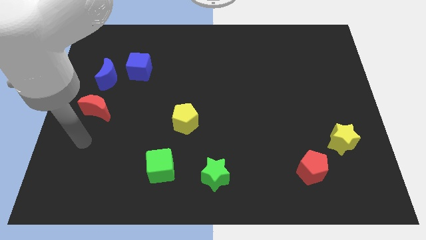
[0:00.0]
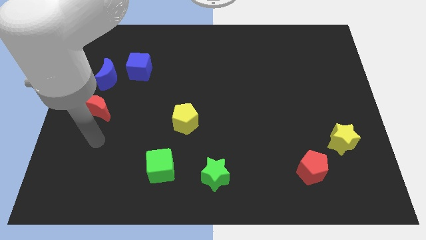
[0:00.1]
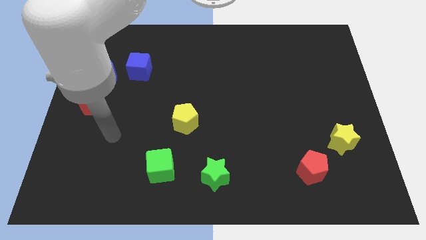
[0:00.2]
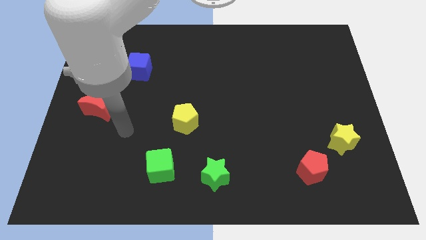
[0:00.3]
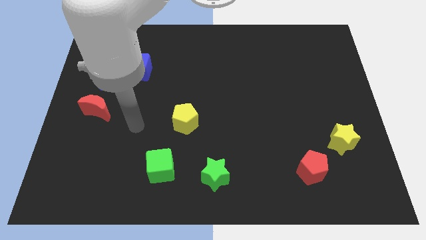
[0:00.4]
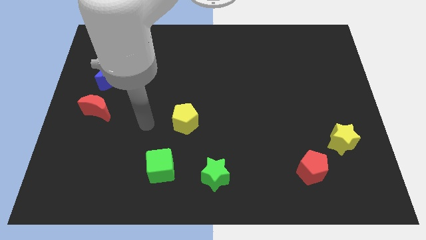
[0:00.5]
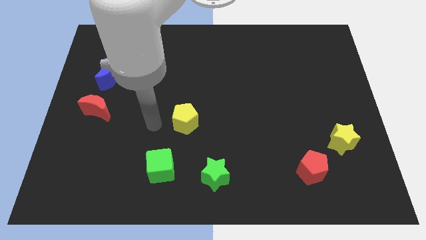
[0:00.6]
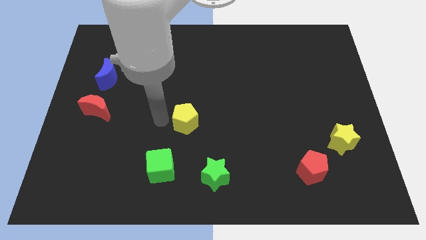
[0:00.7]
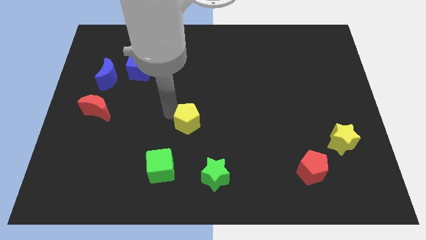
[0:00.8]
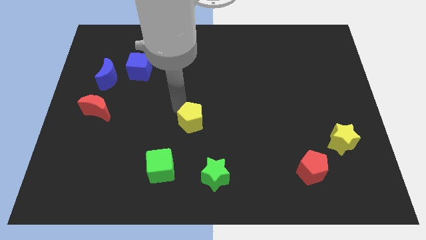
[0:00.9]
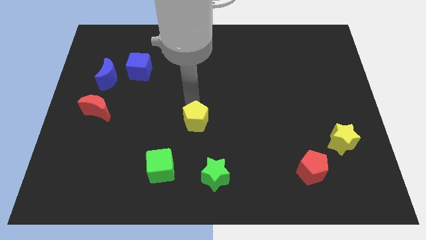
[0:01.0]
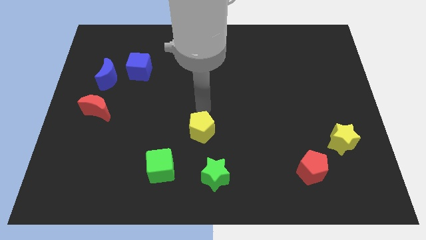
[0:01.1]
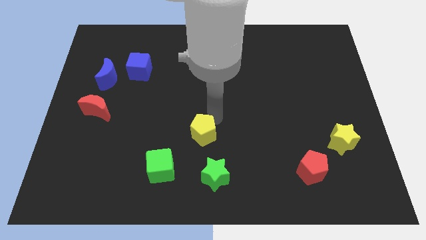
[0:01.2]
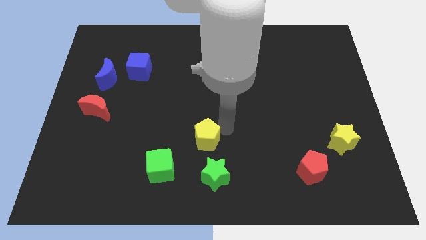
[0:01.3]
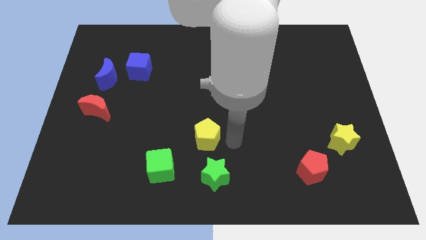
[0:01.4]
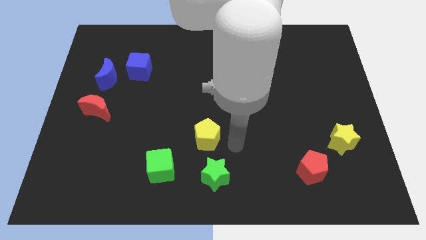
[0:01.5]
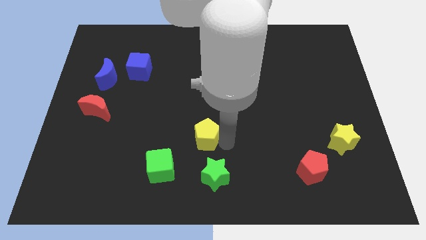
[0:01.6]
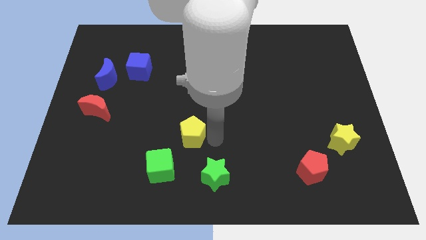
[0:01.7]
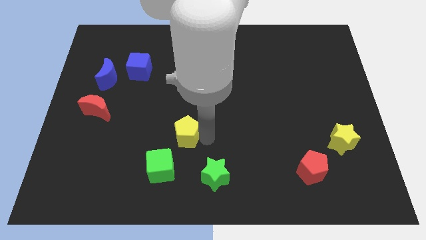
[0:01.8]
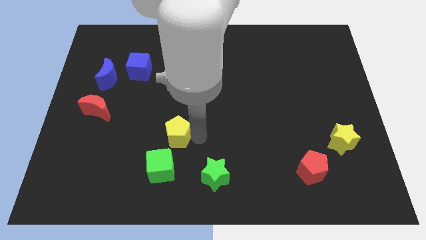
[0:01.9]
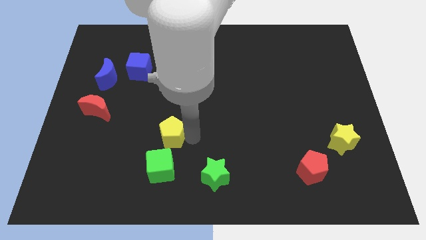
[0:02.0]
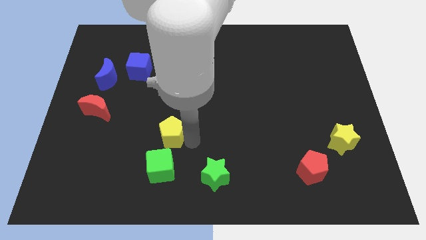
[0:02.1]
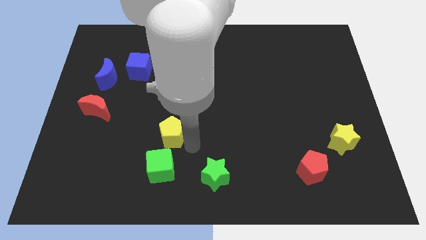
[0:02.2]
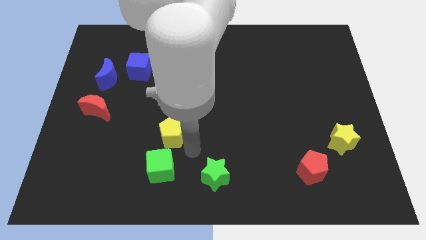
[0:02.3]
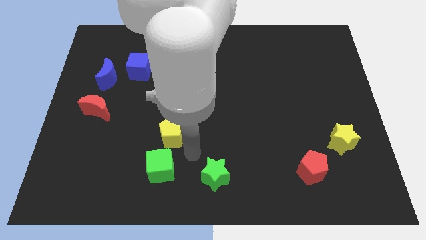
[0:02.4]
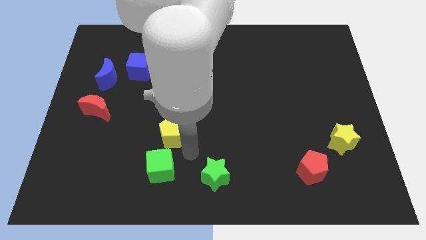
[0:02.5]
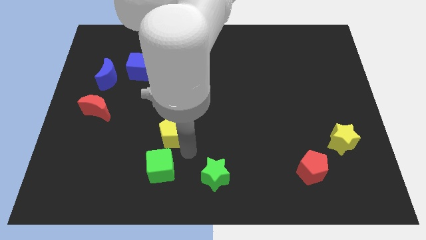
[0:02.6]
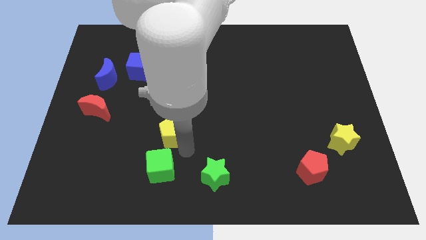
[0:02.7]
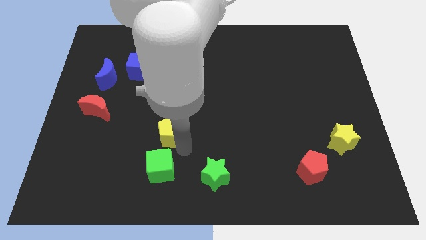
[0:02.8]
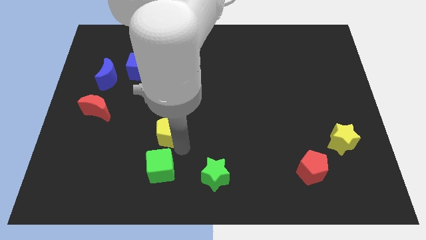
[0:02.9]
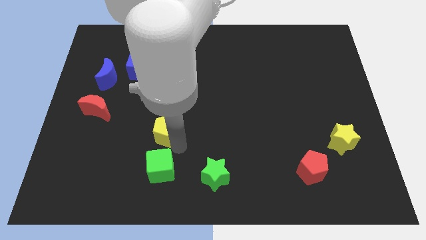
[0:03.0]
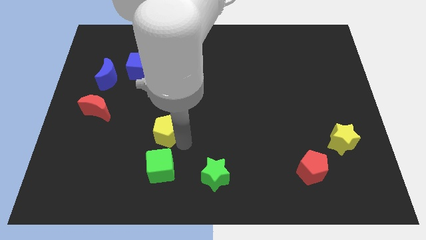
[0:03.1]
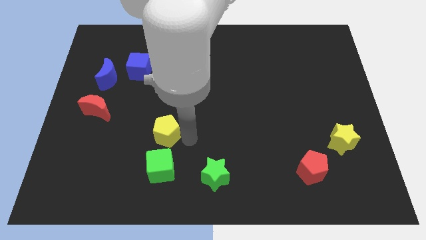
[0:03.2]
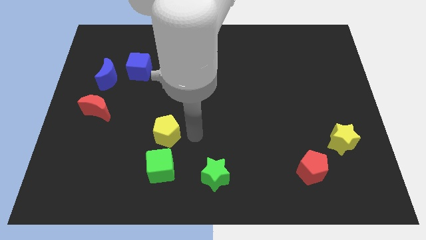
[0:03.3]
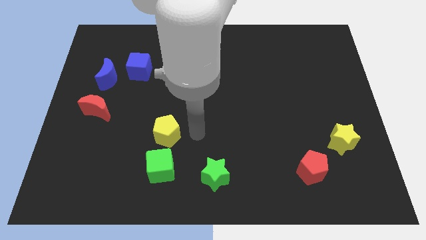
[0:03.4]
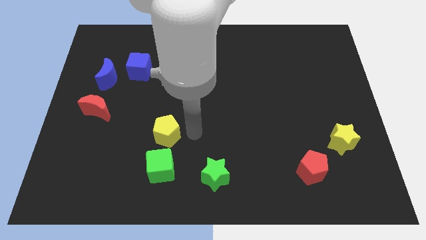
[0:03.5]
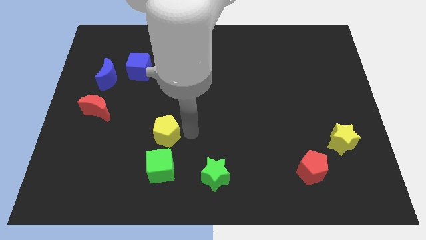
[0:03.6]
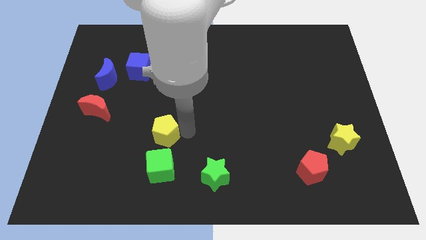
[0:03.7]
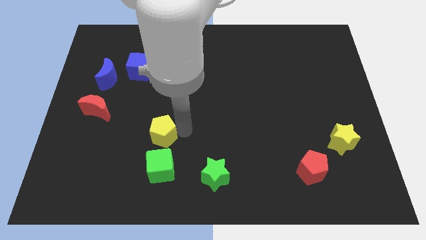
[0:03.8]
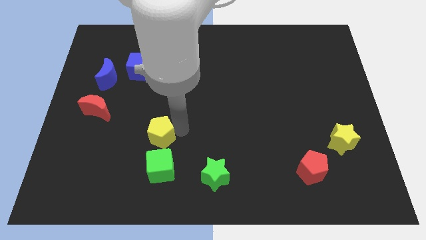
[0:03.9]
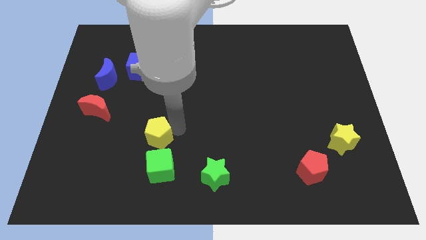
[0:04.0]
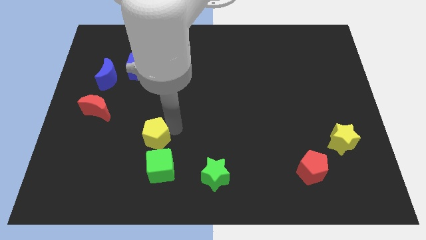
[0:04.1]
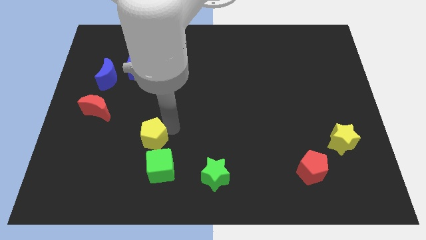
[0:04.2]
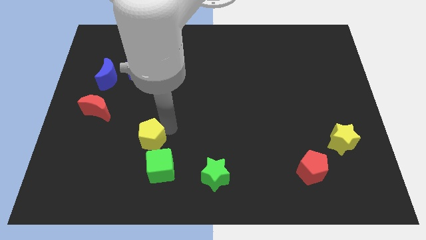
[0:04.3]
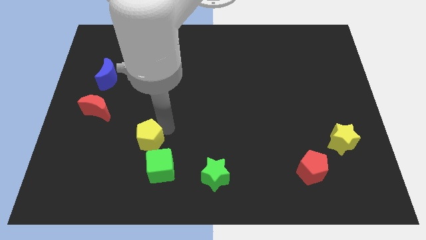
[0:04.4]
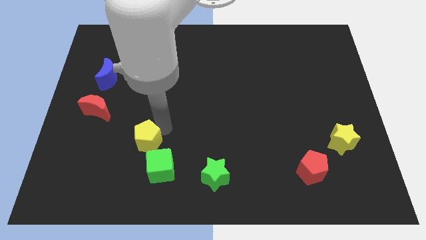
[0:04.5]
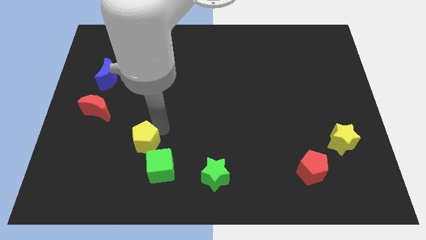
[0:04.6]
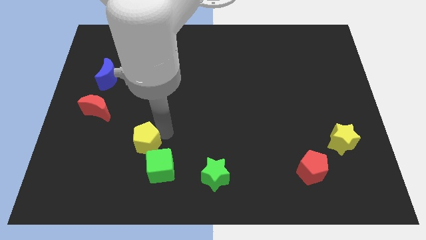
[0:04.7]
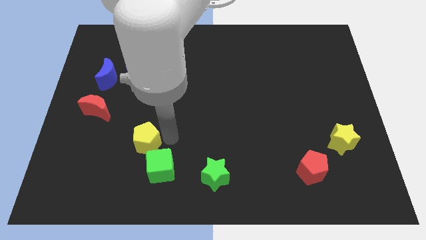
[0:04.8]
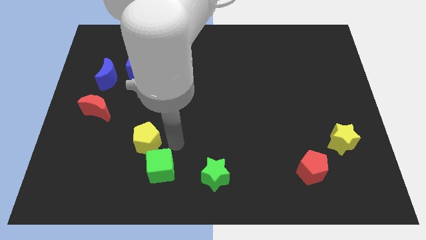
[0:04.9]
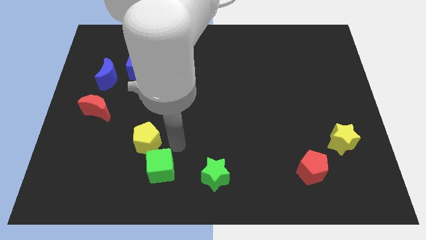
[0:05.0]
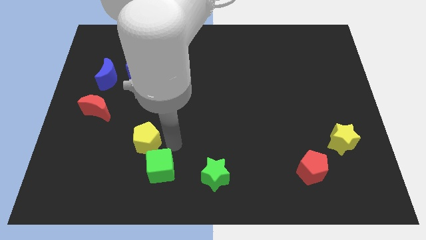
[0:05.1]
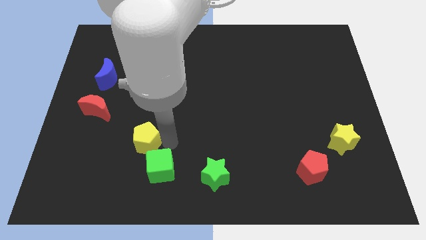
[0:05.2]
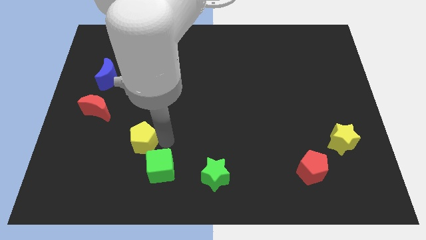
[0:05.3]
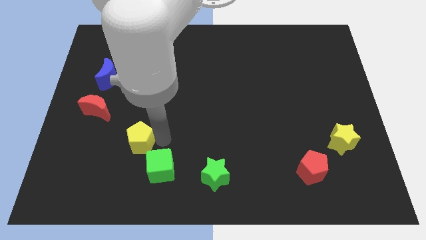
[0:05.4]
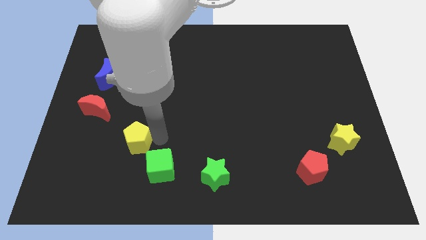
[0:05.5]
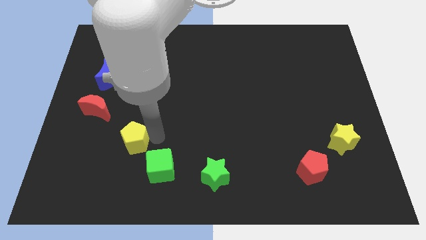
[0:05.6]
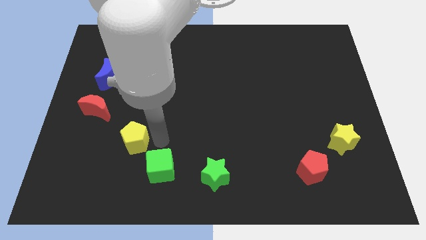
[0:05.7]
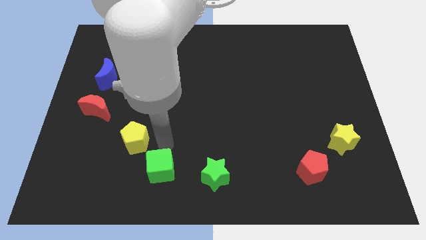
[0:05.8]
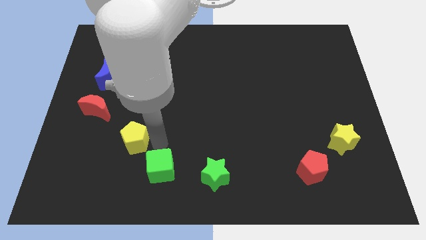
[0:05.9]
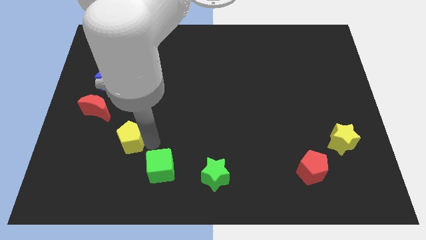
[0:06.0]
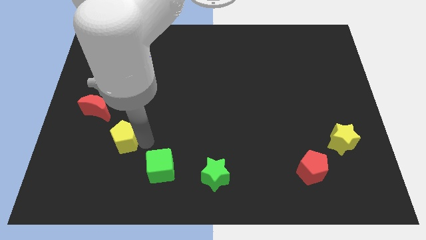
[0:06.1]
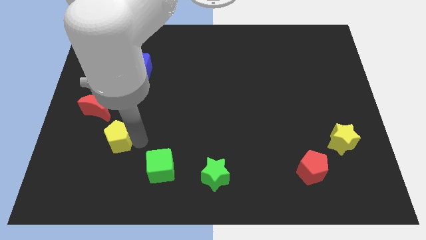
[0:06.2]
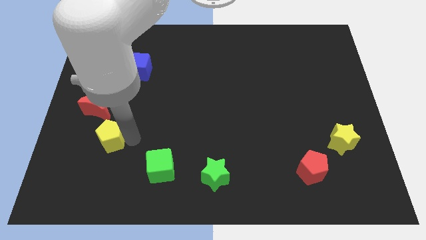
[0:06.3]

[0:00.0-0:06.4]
move the yellow pentagon to the bottom side of the red moon

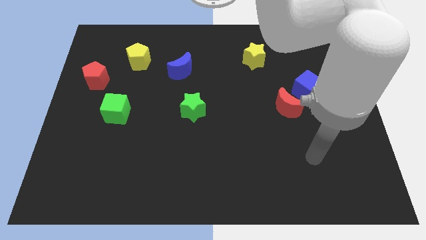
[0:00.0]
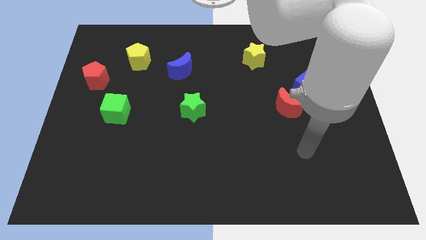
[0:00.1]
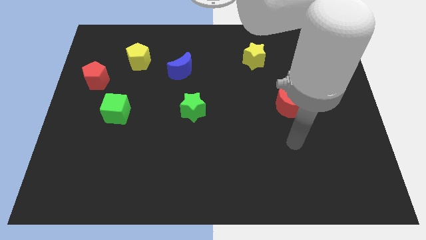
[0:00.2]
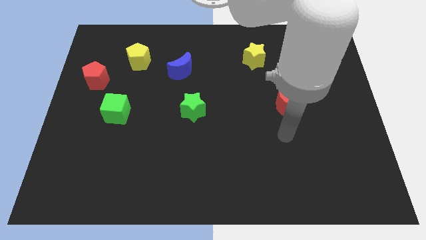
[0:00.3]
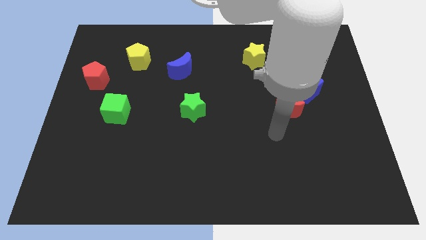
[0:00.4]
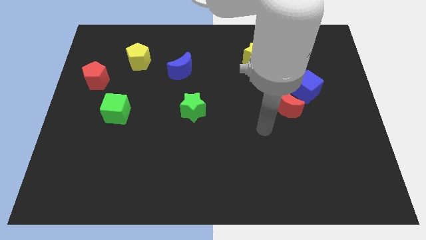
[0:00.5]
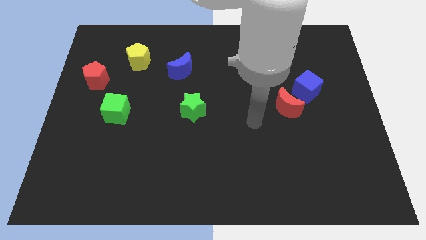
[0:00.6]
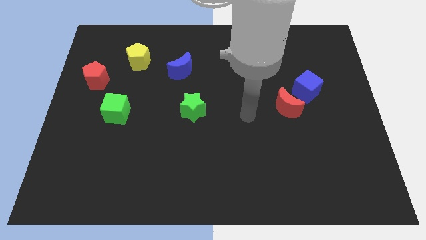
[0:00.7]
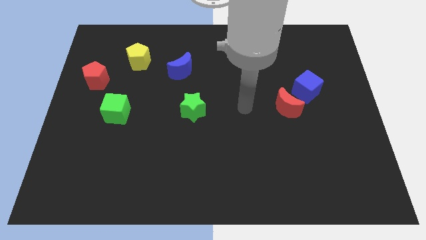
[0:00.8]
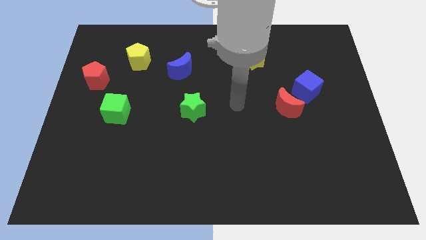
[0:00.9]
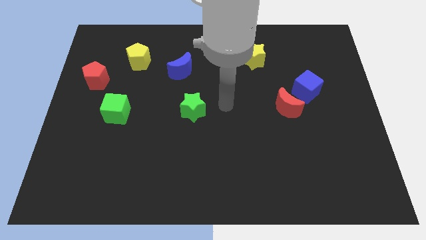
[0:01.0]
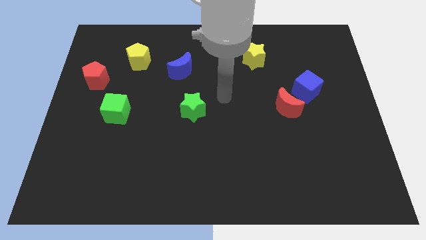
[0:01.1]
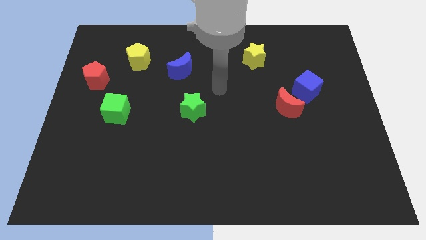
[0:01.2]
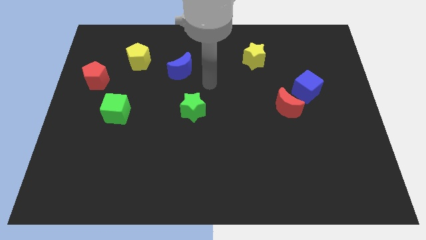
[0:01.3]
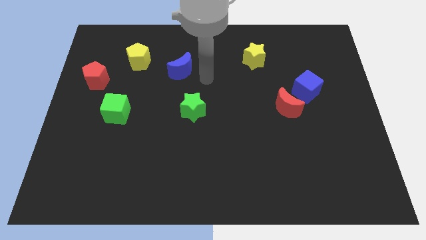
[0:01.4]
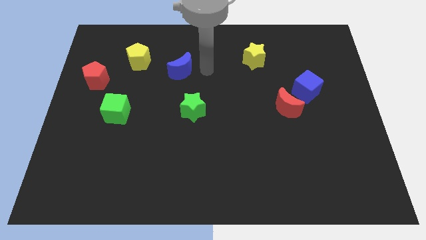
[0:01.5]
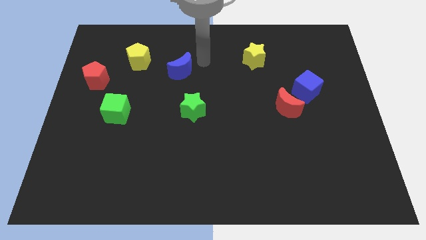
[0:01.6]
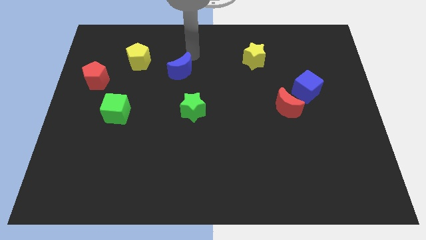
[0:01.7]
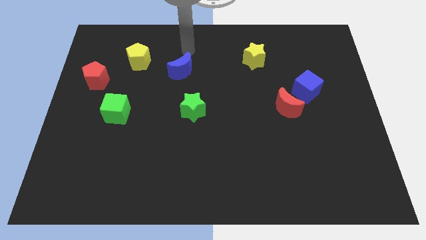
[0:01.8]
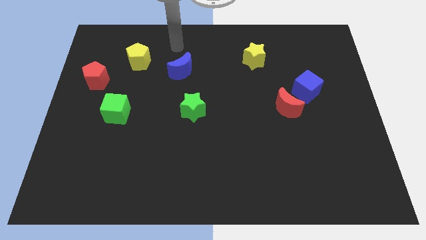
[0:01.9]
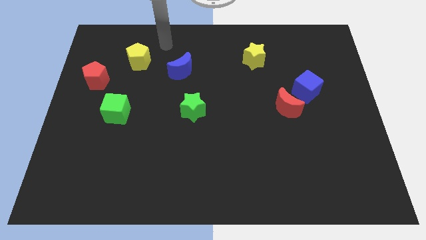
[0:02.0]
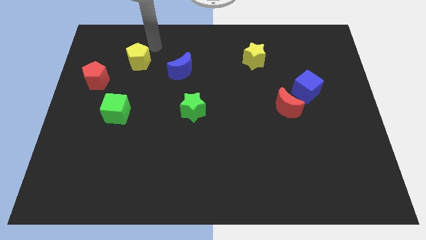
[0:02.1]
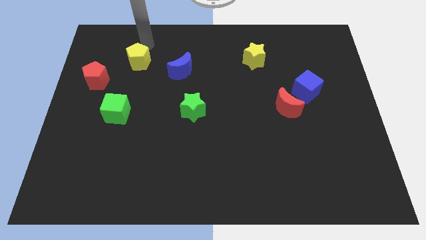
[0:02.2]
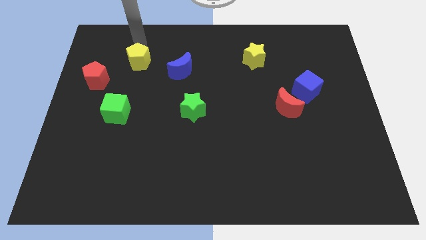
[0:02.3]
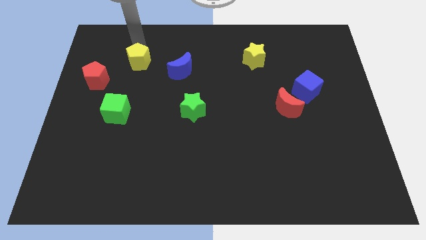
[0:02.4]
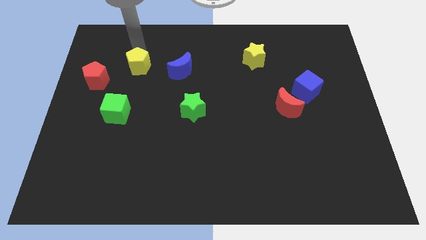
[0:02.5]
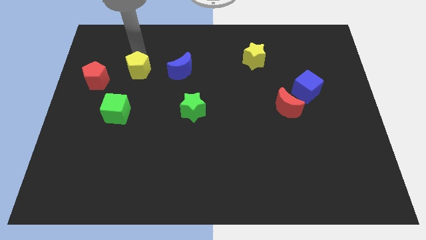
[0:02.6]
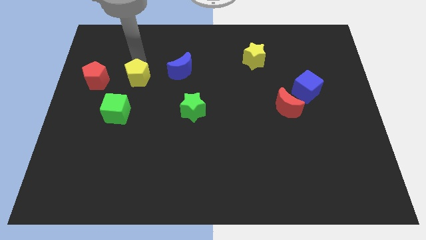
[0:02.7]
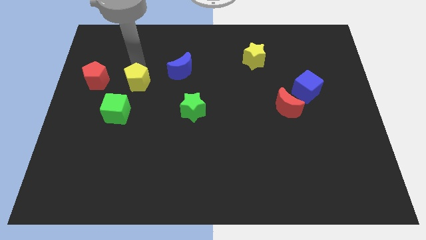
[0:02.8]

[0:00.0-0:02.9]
move the yellow pentagon to the top right side of the green cube
